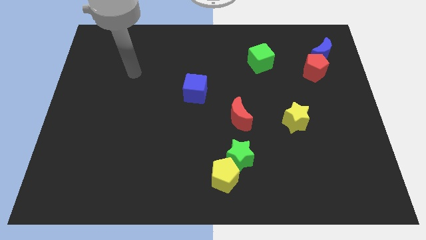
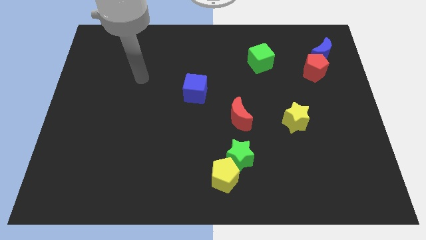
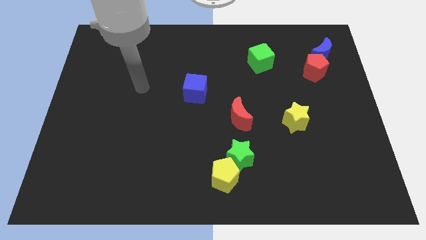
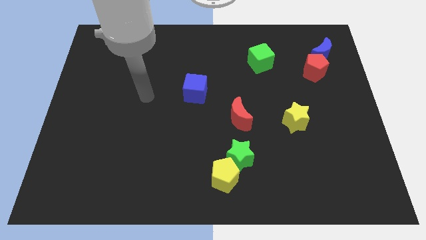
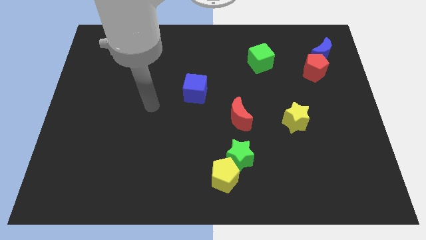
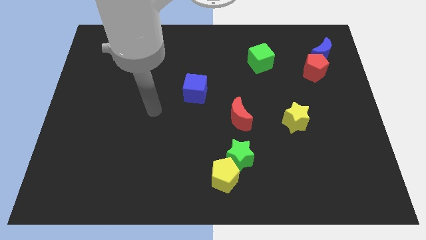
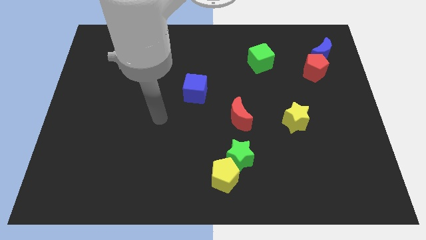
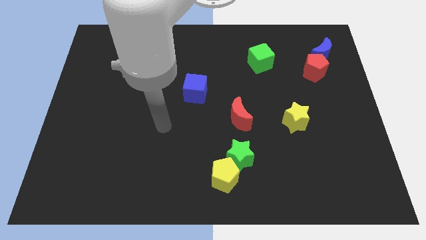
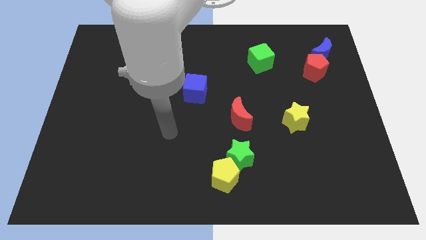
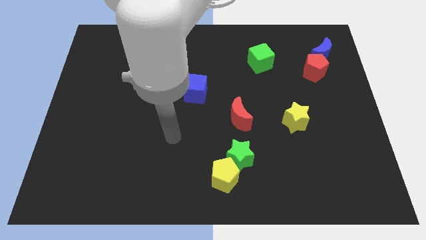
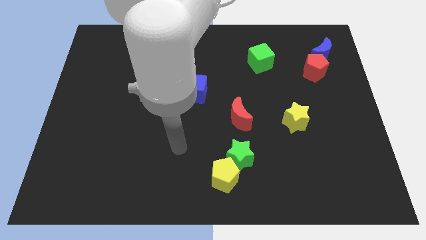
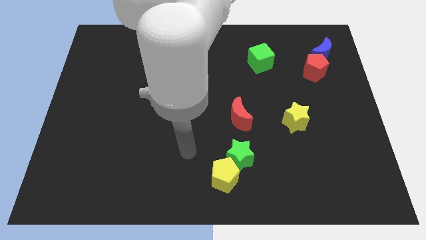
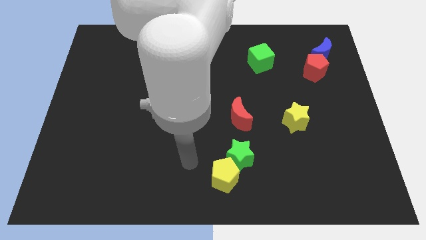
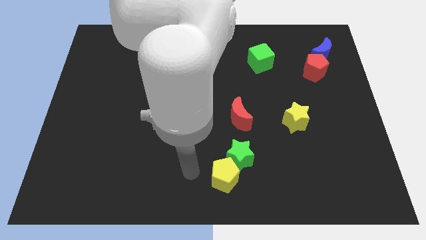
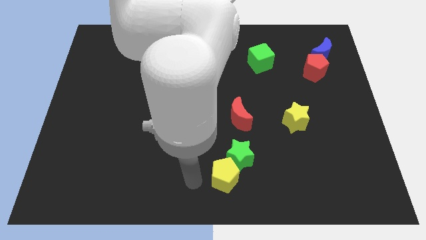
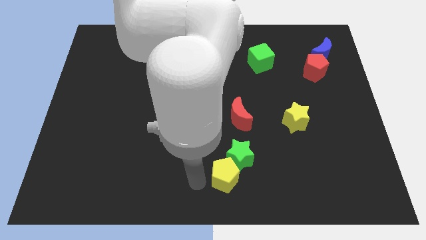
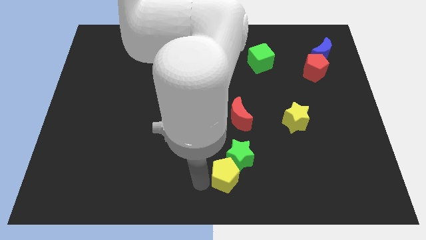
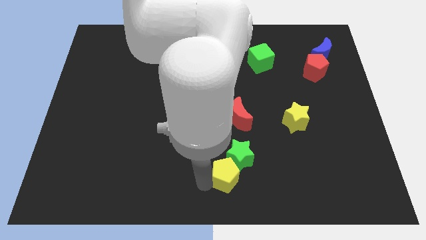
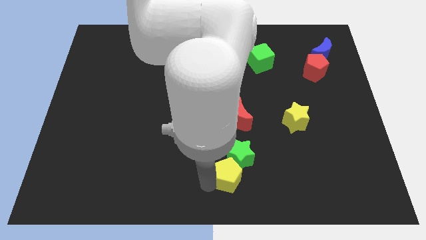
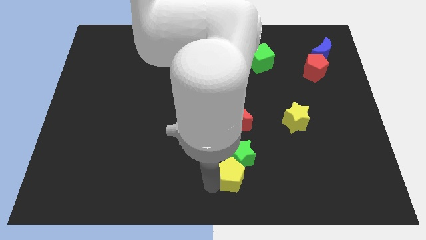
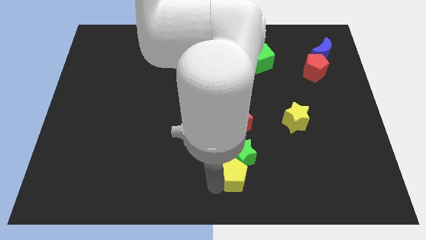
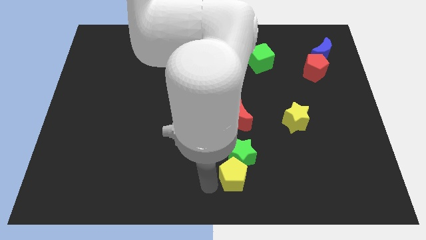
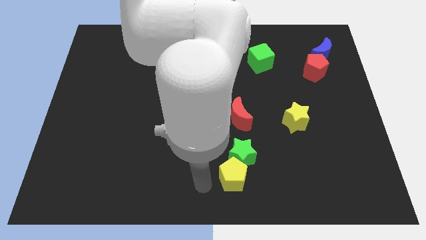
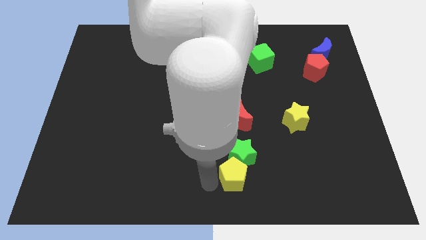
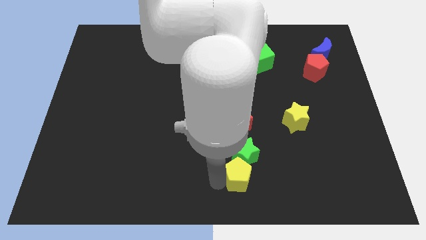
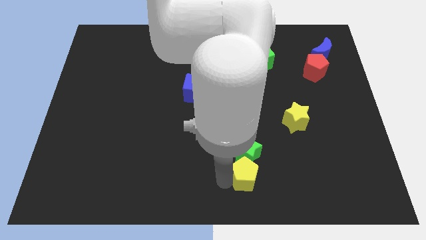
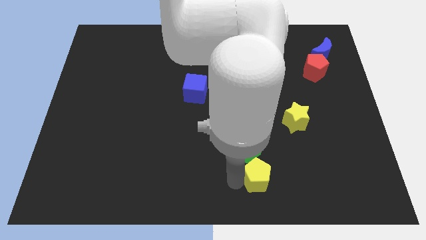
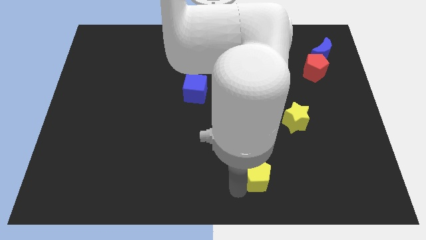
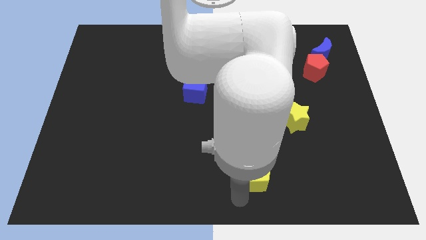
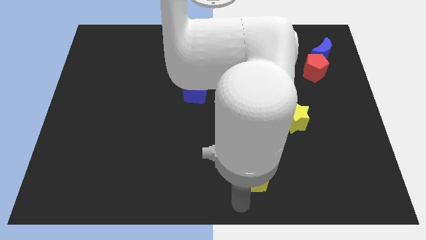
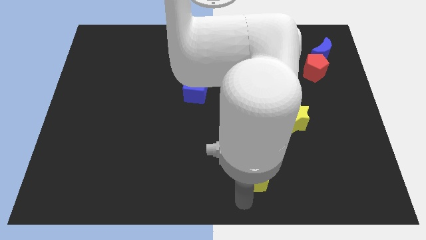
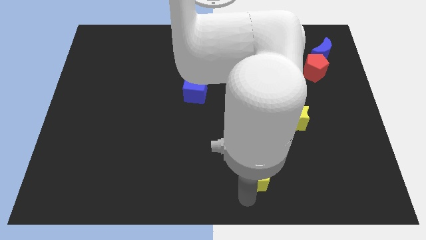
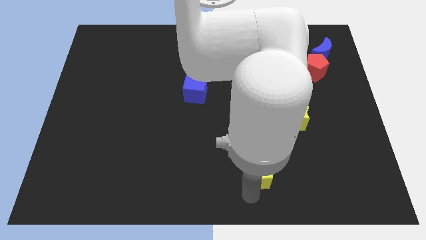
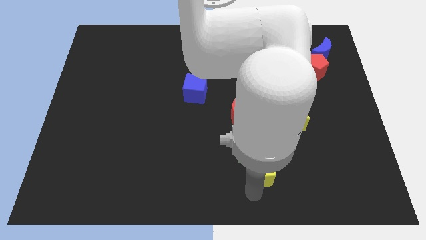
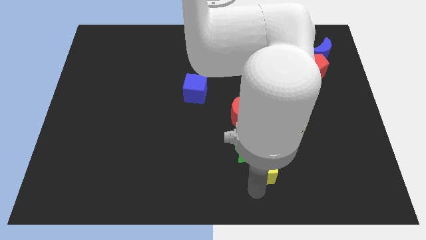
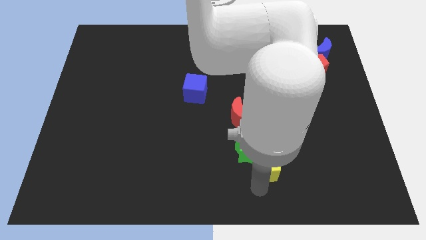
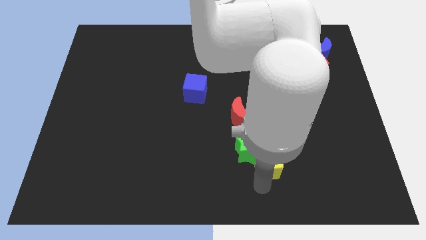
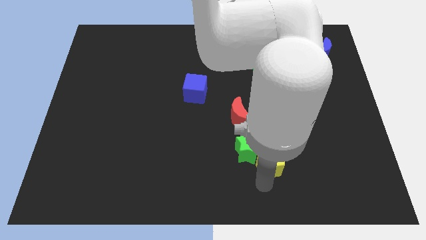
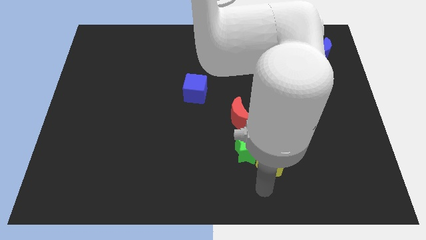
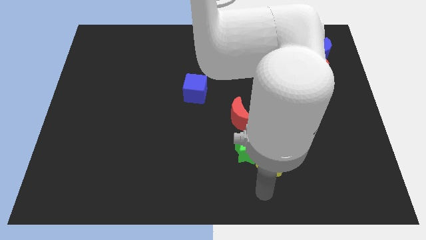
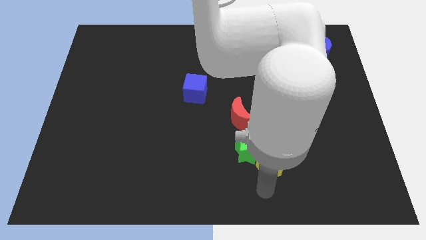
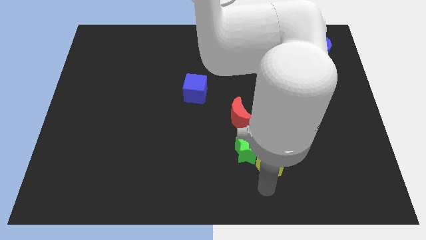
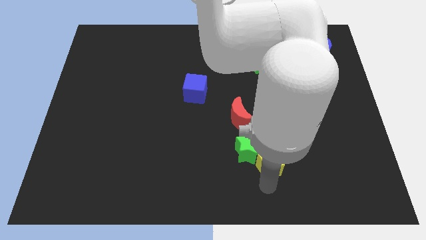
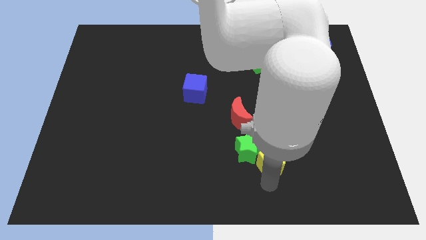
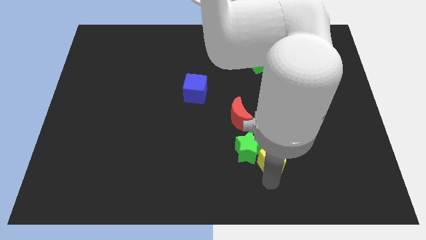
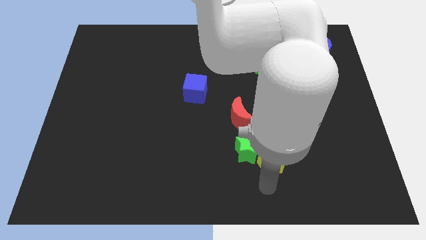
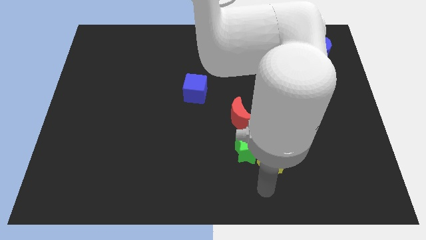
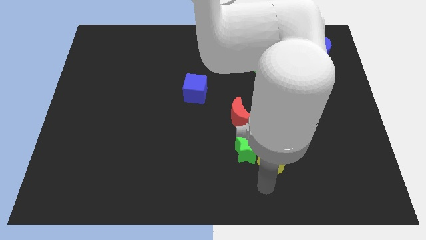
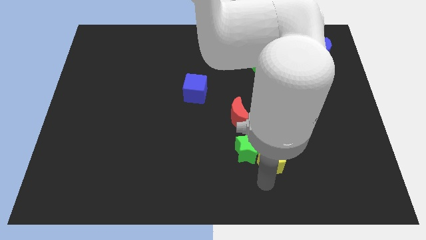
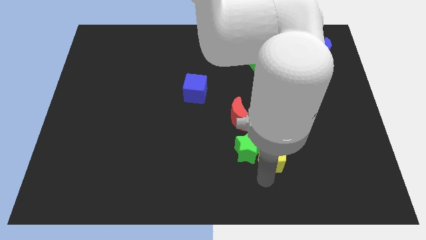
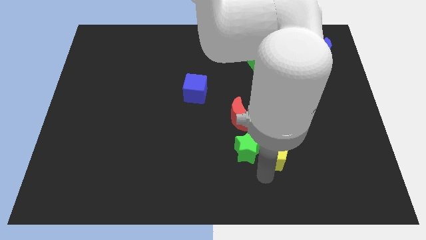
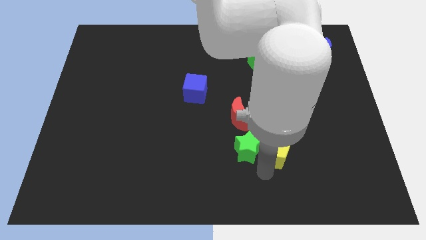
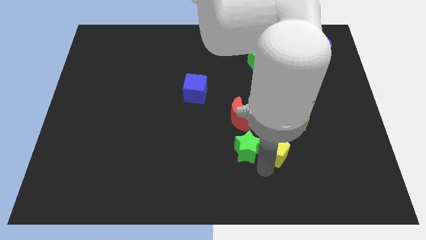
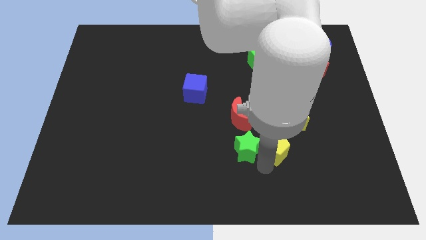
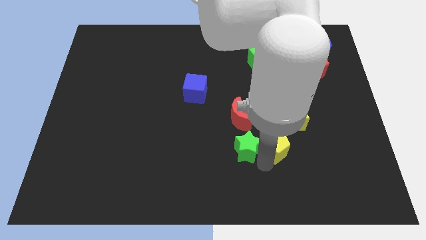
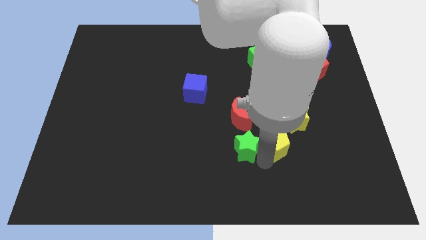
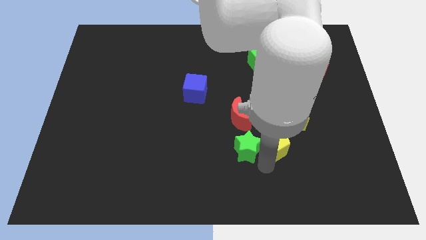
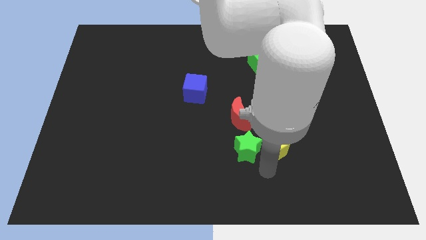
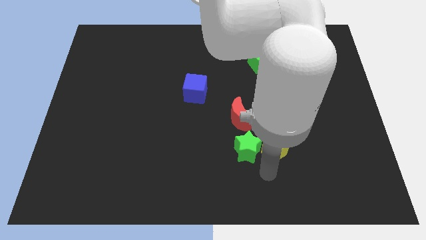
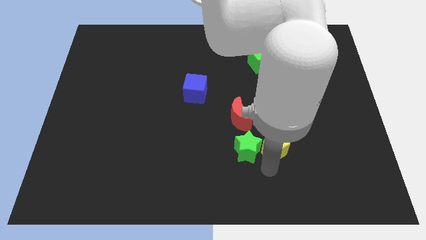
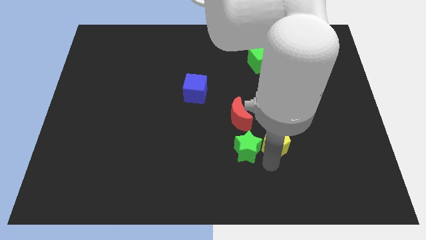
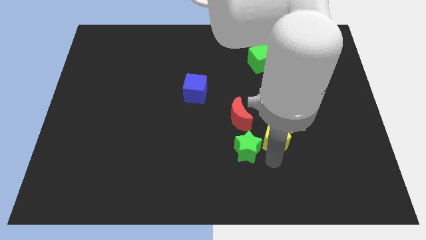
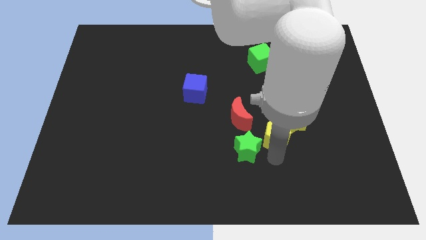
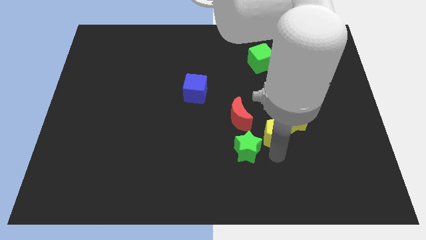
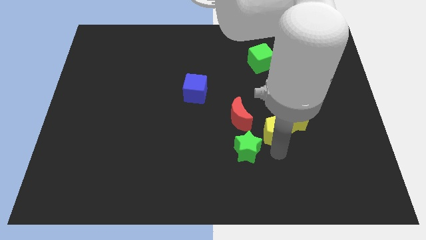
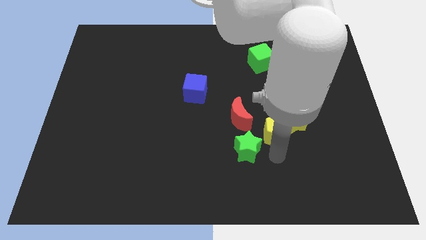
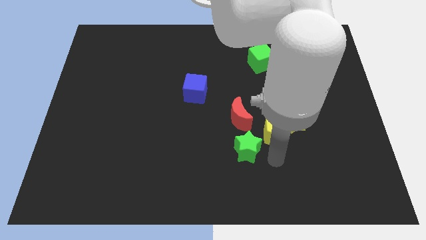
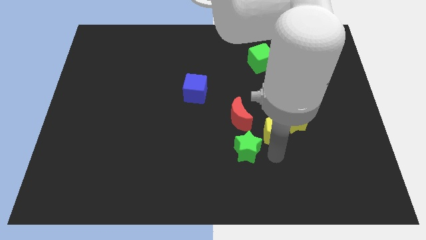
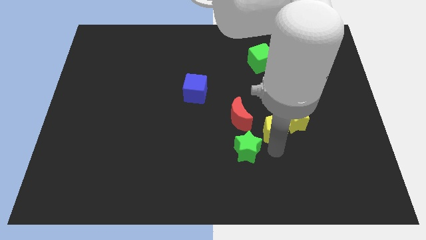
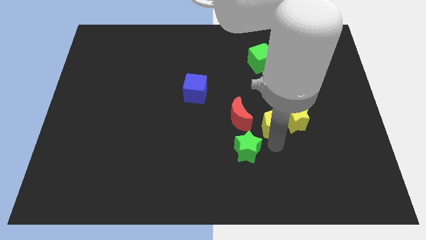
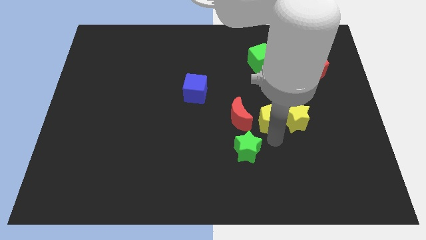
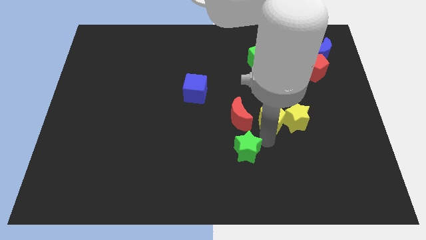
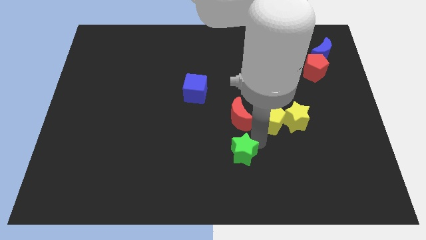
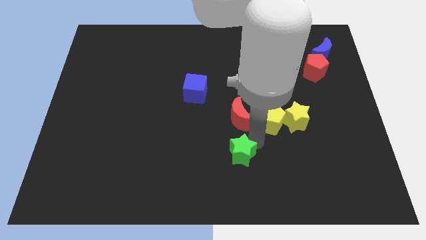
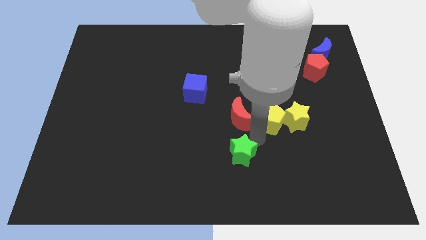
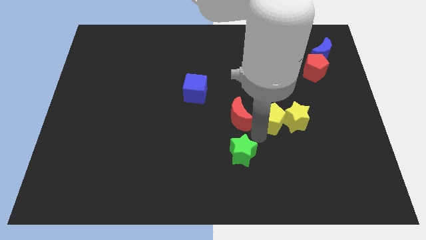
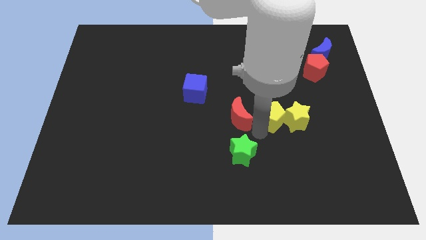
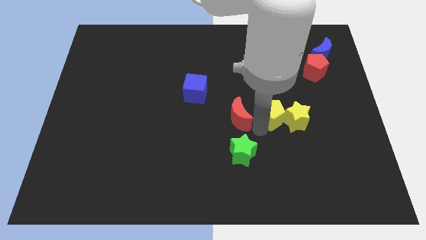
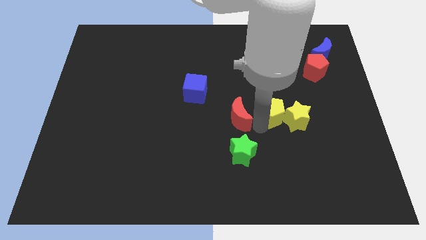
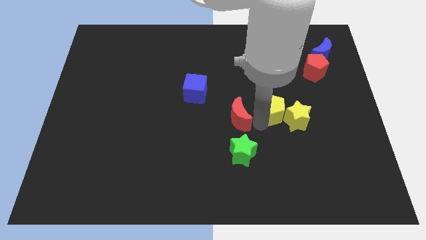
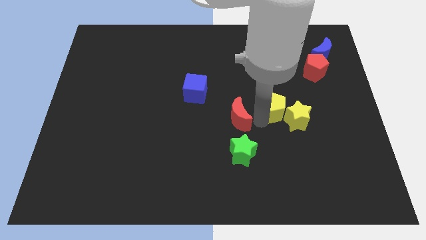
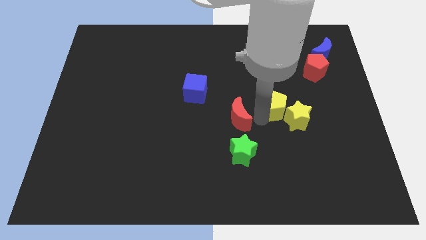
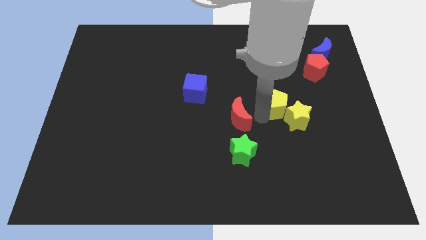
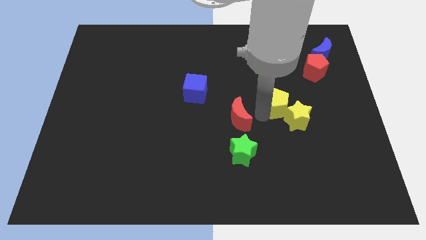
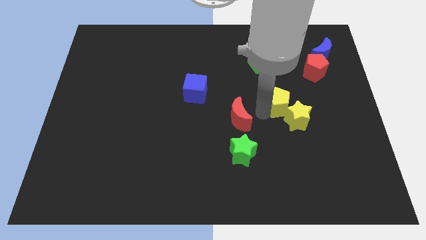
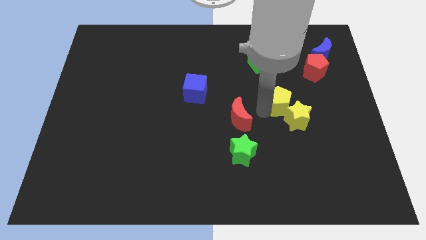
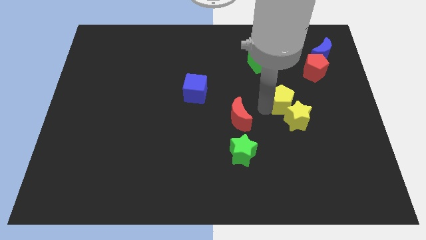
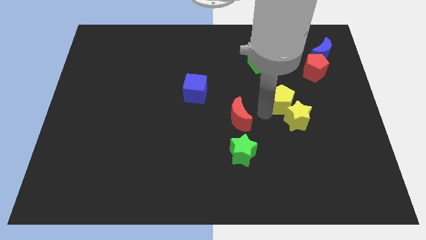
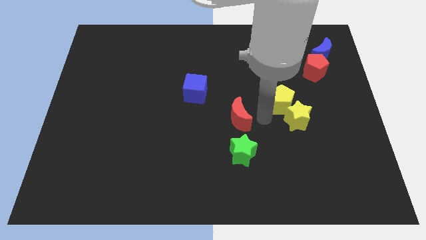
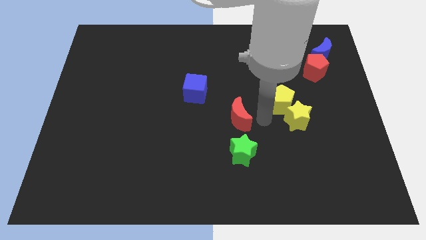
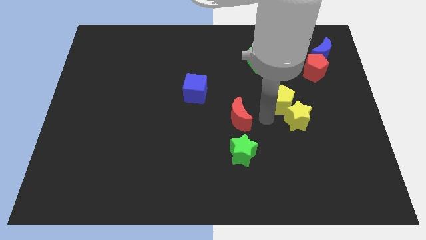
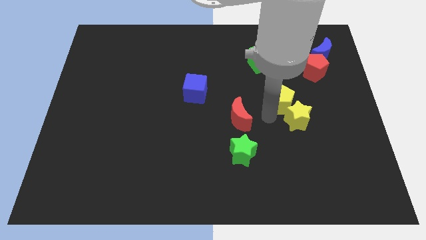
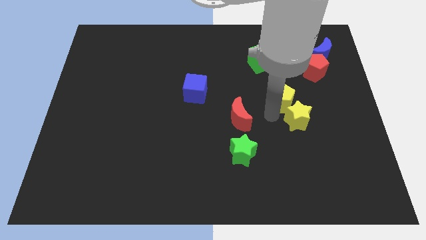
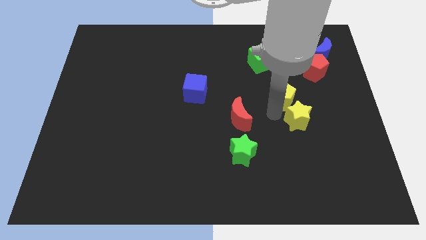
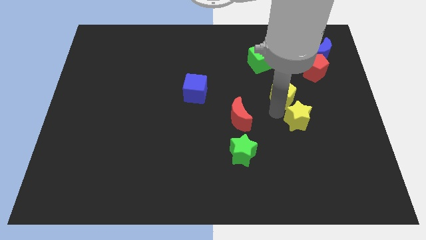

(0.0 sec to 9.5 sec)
slide the yellow pentagon diagonally down and to the left of the red pentagon
